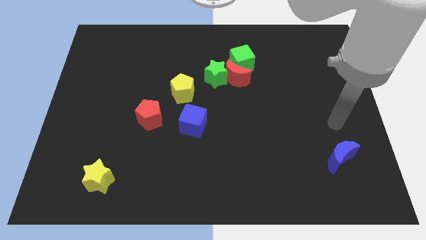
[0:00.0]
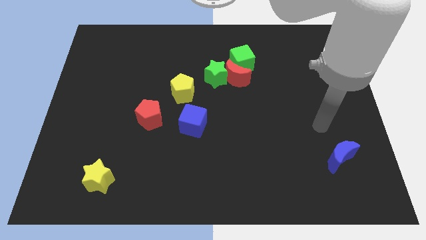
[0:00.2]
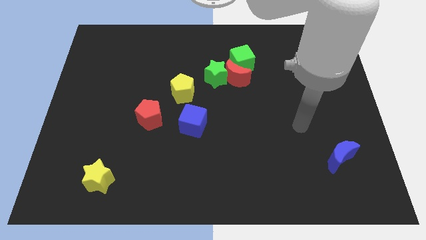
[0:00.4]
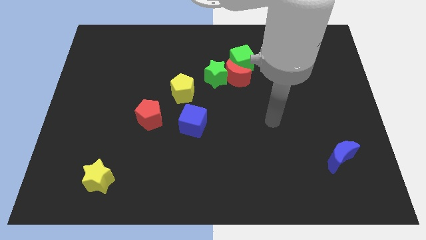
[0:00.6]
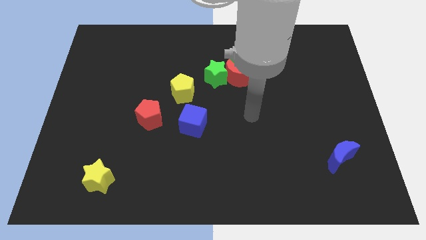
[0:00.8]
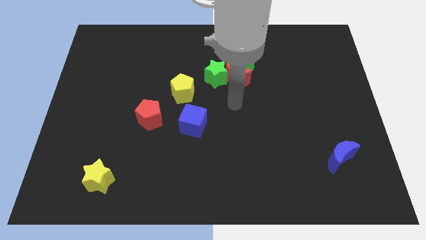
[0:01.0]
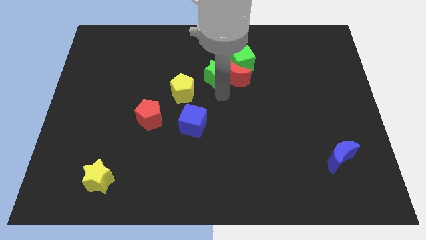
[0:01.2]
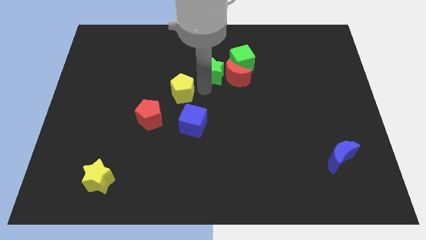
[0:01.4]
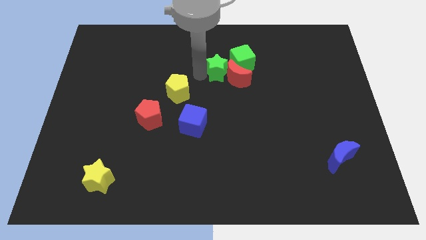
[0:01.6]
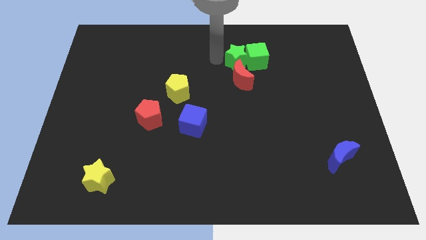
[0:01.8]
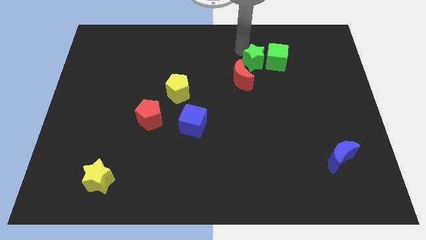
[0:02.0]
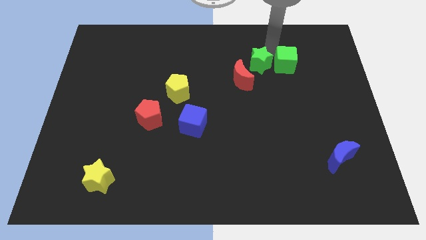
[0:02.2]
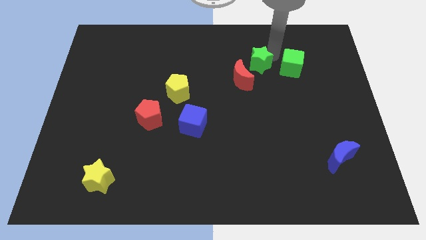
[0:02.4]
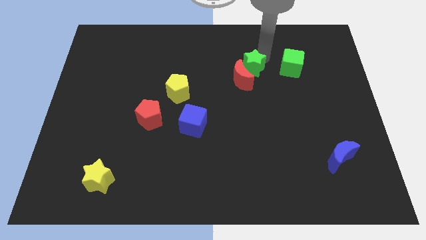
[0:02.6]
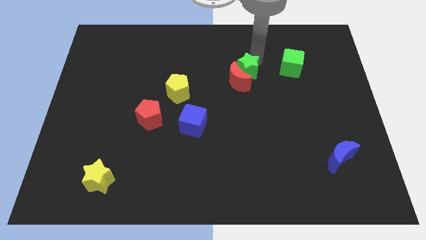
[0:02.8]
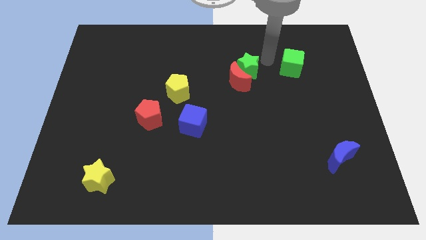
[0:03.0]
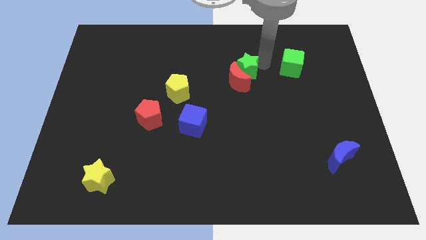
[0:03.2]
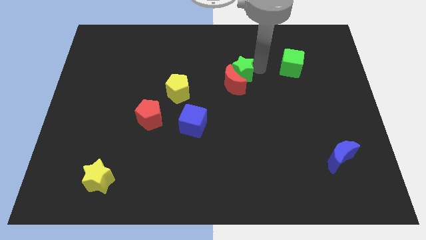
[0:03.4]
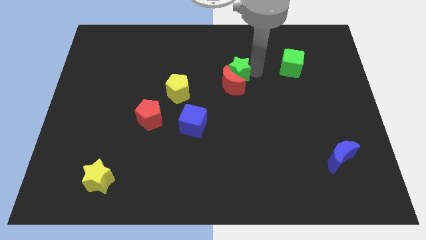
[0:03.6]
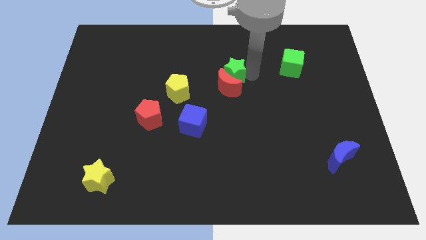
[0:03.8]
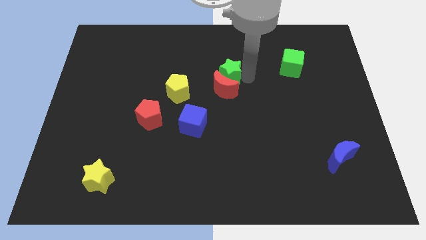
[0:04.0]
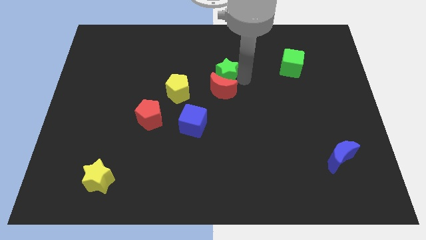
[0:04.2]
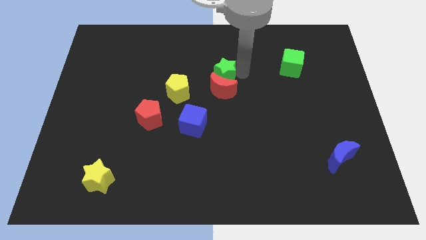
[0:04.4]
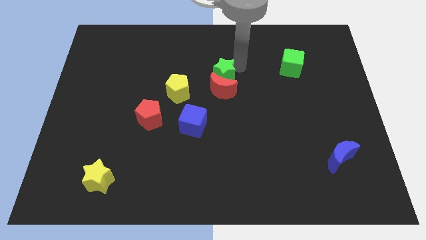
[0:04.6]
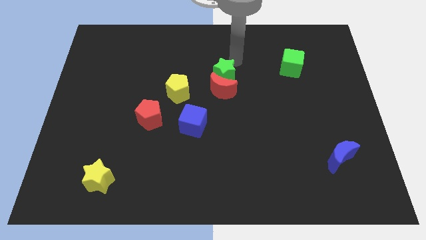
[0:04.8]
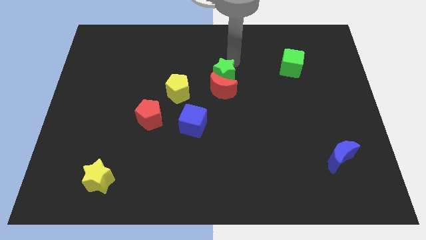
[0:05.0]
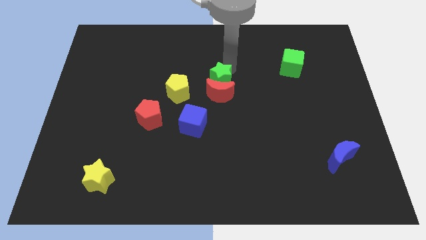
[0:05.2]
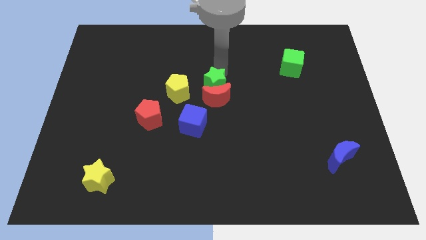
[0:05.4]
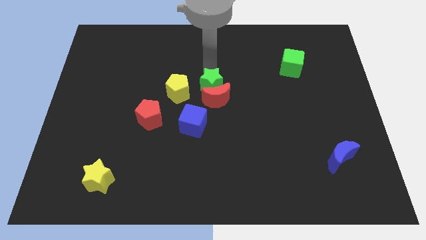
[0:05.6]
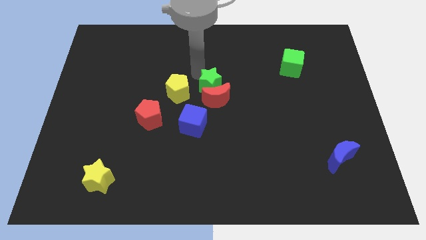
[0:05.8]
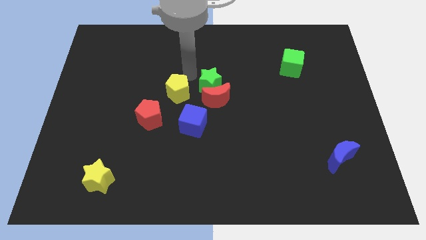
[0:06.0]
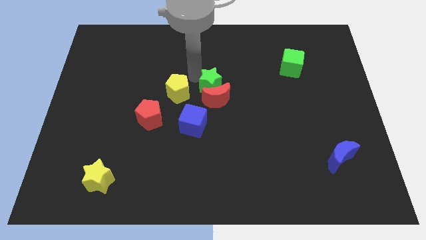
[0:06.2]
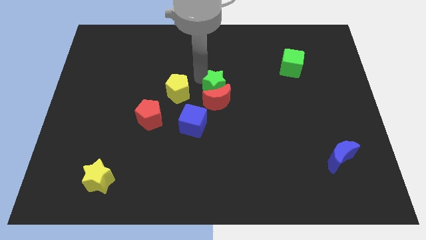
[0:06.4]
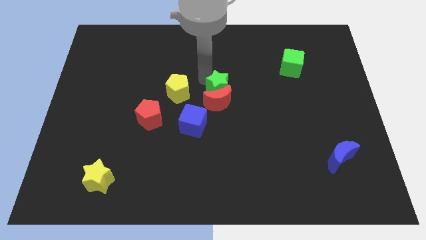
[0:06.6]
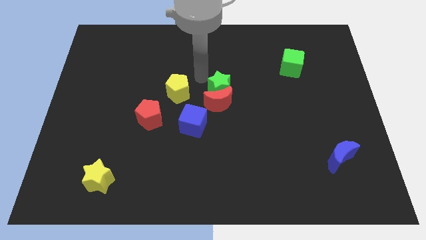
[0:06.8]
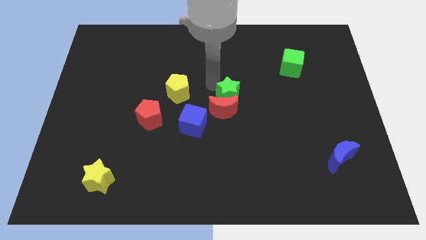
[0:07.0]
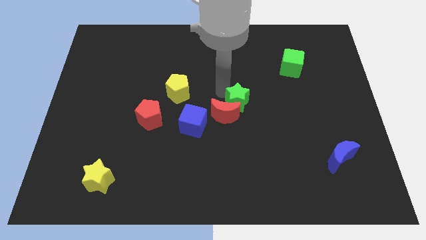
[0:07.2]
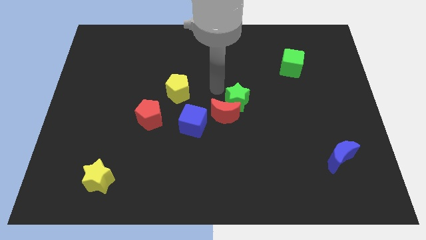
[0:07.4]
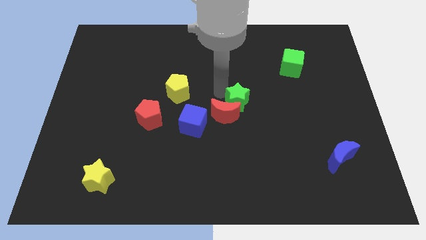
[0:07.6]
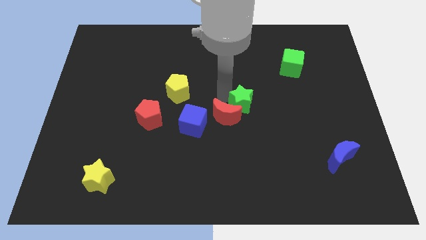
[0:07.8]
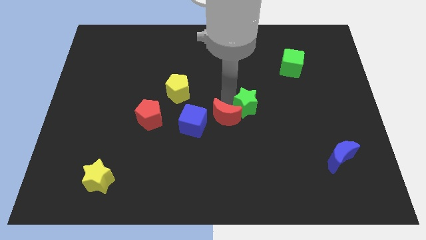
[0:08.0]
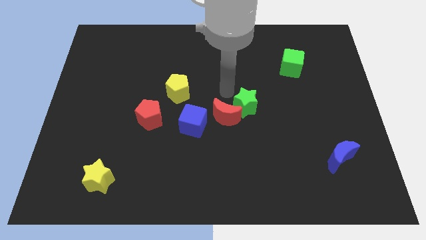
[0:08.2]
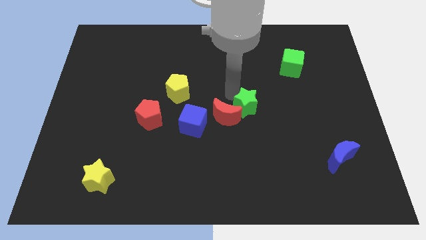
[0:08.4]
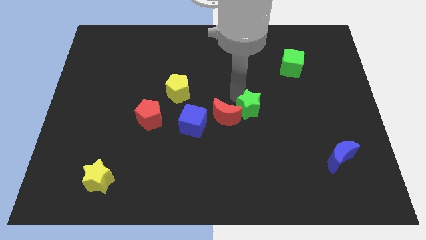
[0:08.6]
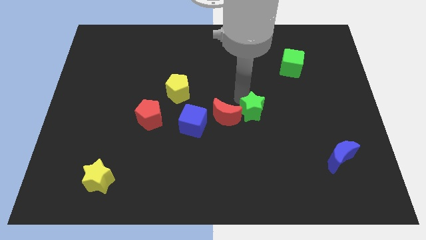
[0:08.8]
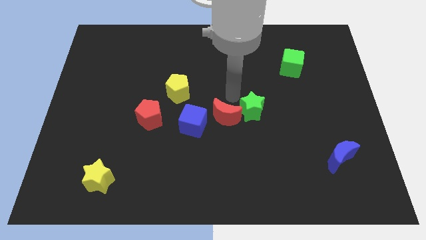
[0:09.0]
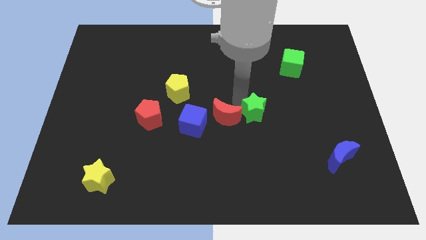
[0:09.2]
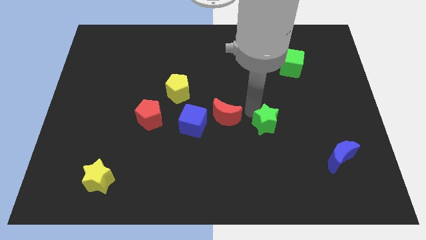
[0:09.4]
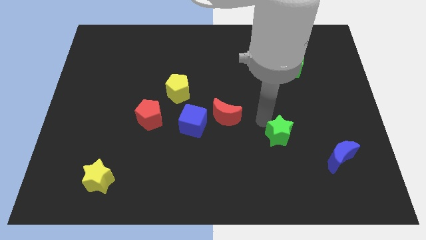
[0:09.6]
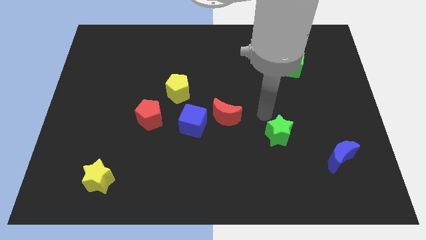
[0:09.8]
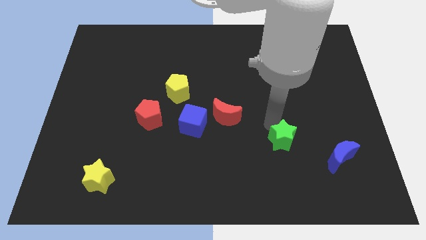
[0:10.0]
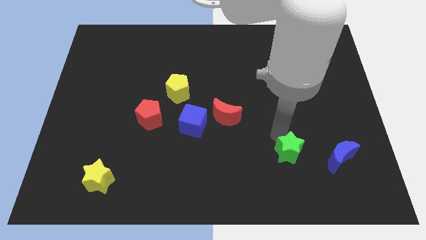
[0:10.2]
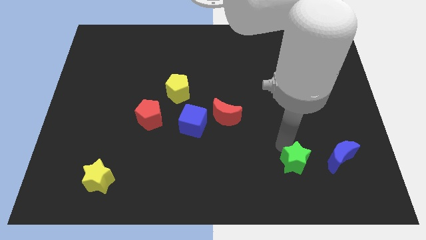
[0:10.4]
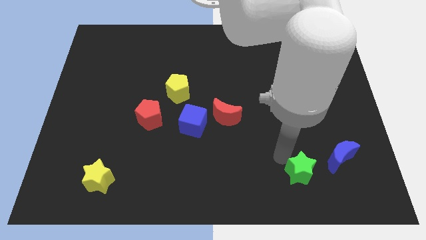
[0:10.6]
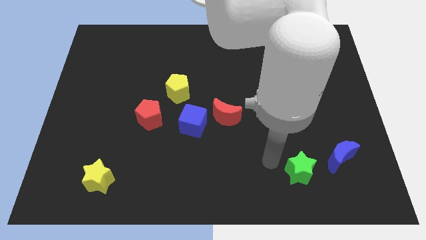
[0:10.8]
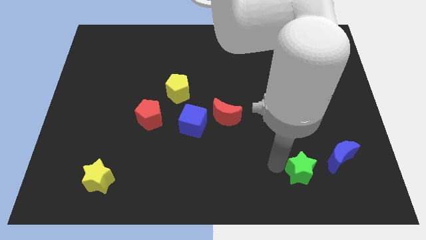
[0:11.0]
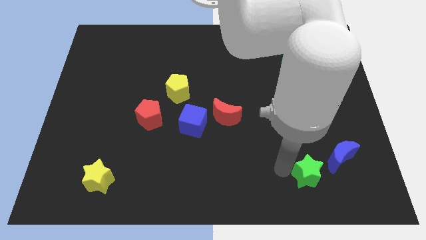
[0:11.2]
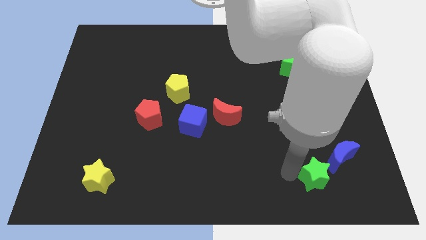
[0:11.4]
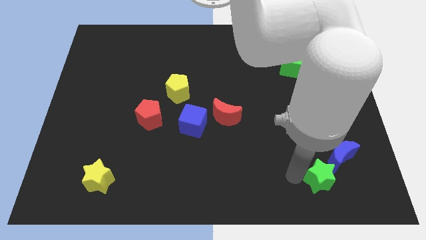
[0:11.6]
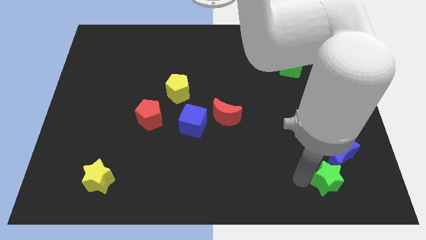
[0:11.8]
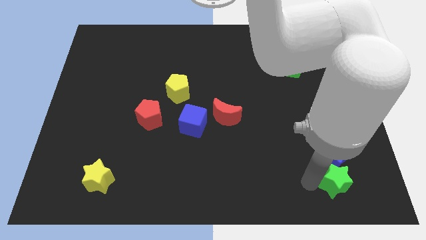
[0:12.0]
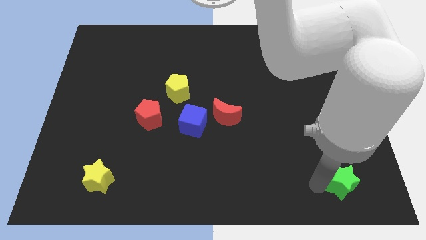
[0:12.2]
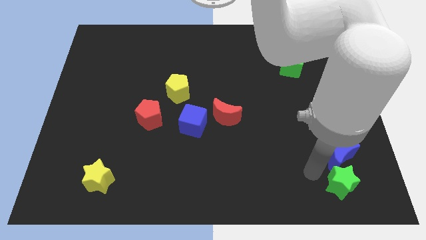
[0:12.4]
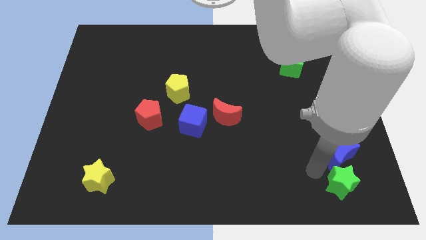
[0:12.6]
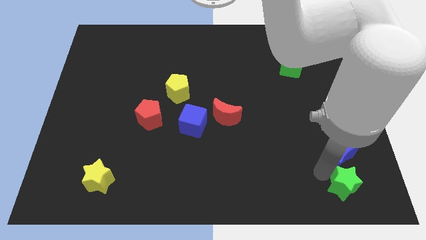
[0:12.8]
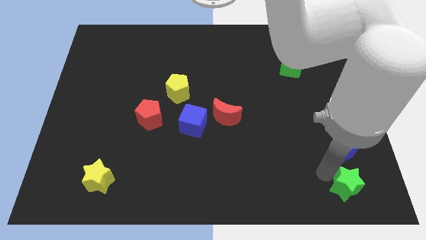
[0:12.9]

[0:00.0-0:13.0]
push the green star to the lower right corner
